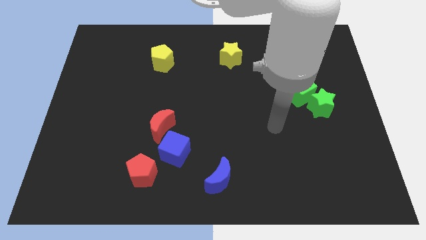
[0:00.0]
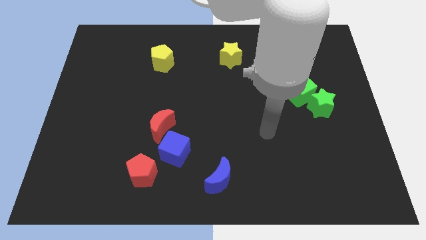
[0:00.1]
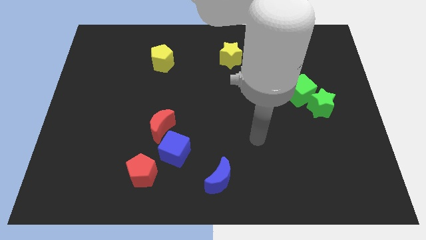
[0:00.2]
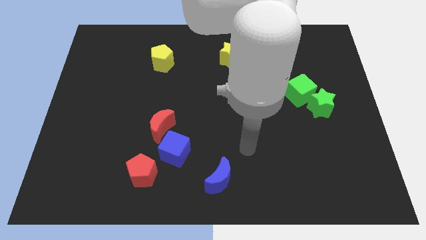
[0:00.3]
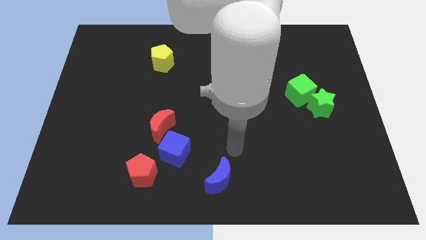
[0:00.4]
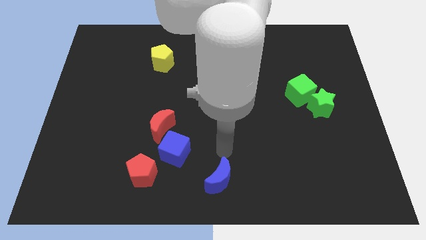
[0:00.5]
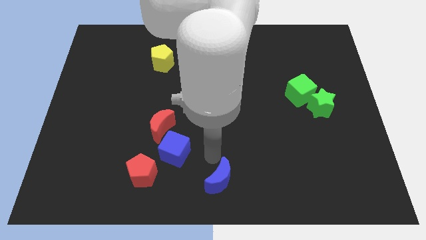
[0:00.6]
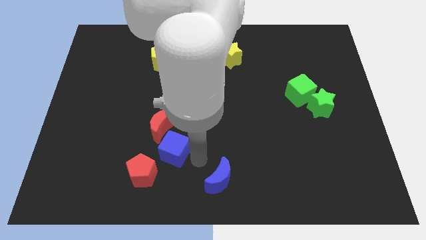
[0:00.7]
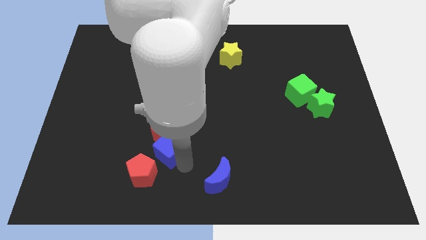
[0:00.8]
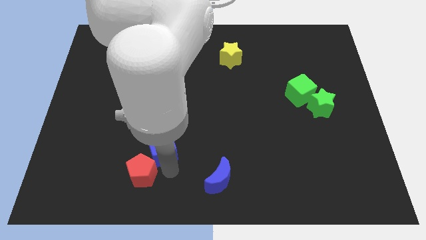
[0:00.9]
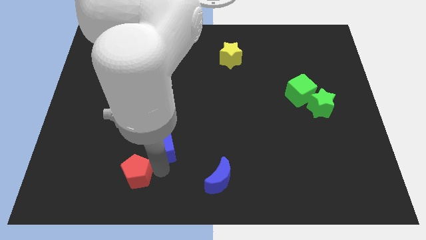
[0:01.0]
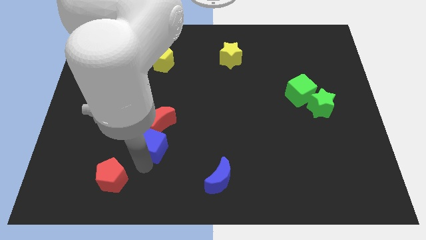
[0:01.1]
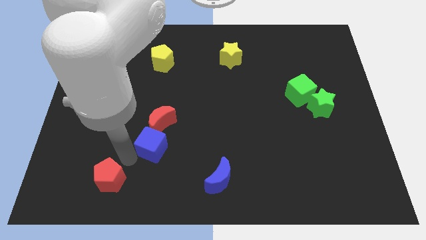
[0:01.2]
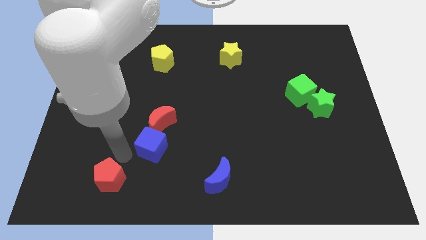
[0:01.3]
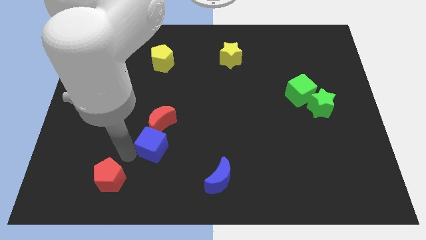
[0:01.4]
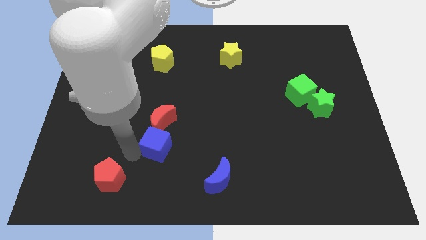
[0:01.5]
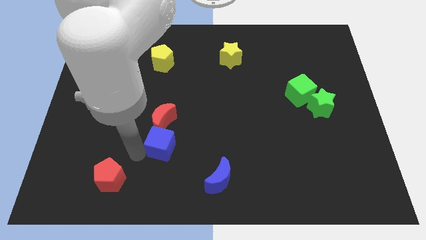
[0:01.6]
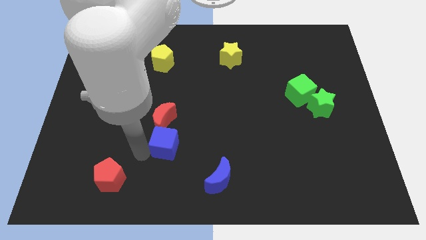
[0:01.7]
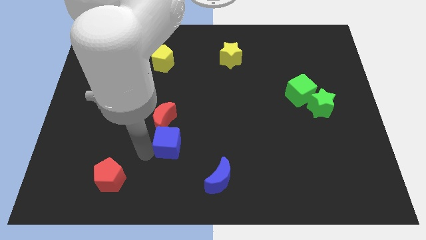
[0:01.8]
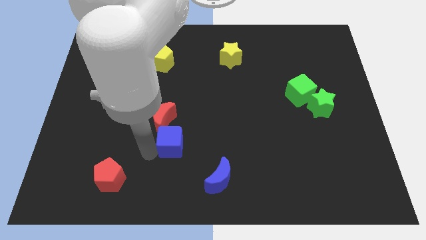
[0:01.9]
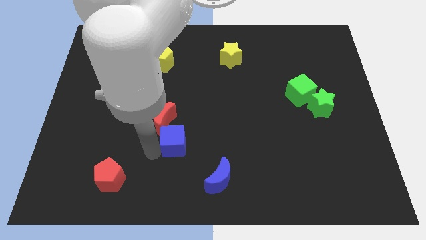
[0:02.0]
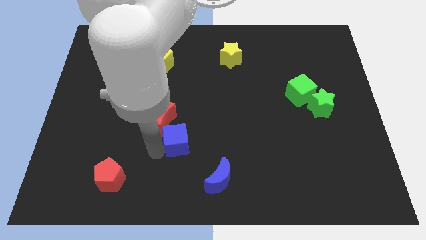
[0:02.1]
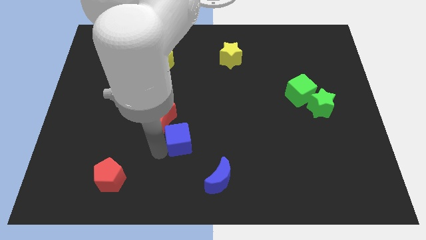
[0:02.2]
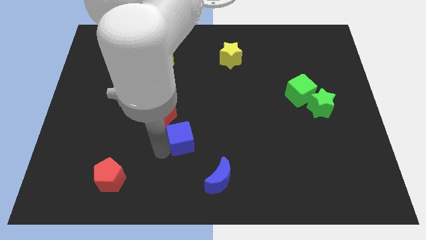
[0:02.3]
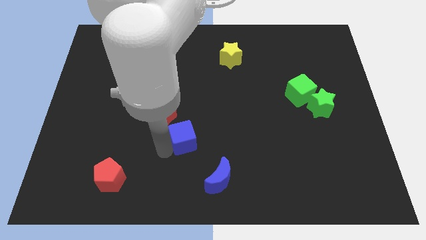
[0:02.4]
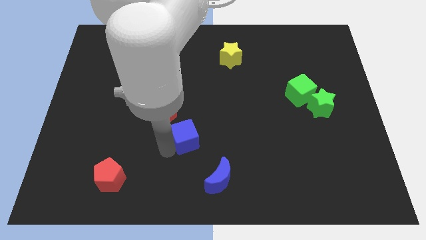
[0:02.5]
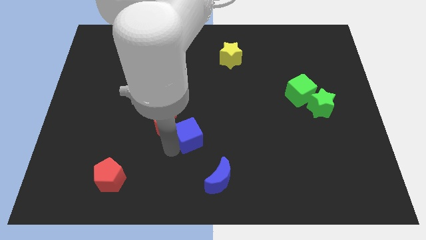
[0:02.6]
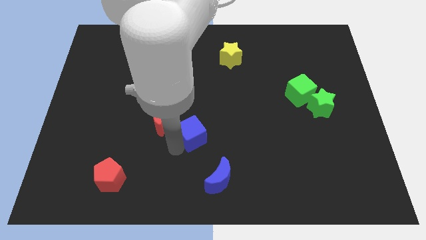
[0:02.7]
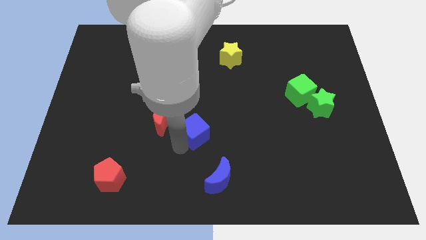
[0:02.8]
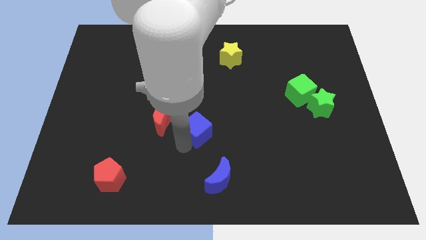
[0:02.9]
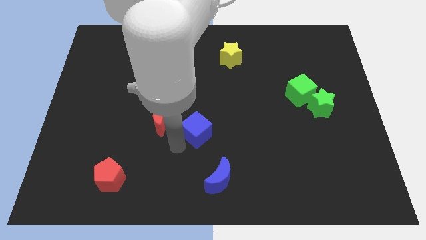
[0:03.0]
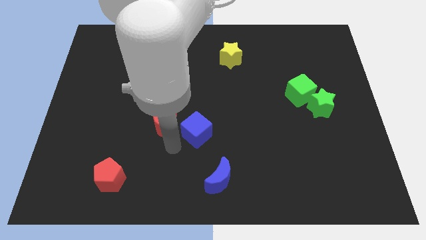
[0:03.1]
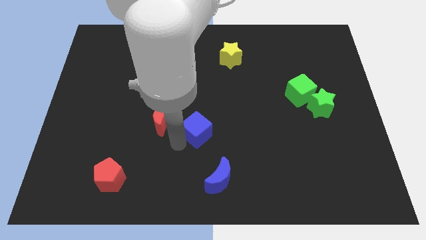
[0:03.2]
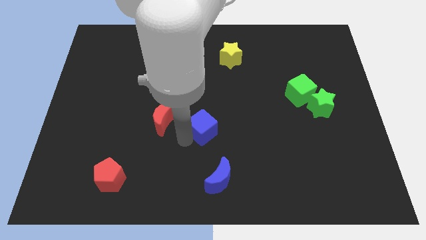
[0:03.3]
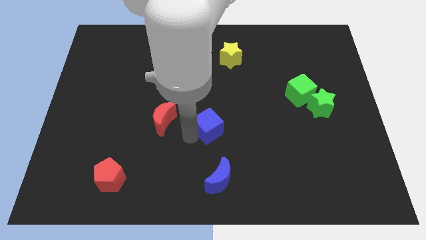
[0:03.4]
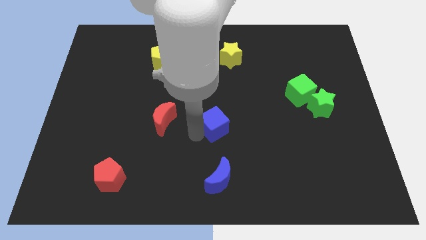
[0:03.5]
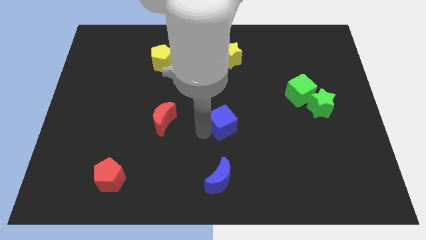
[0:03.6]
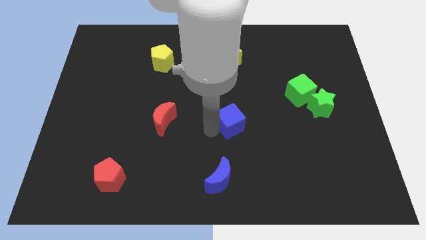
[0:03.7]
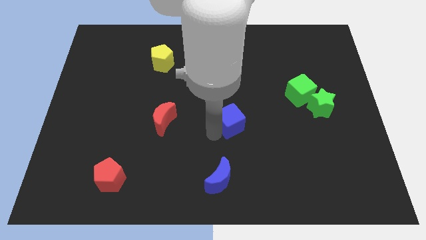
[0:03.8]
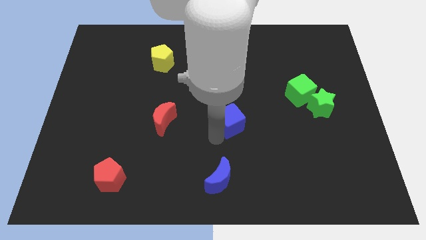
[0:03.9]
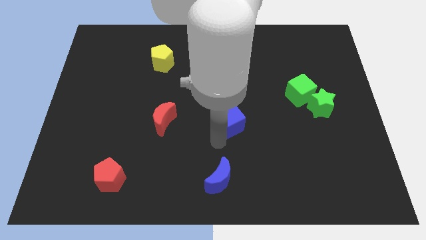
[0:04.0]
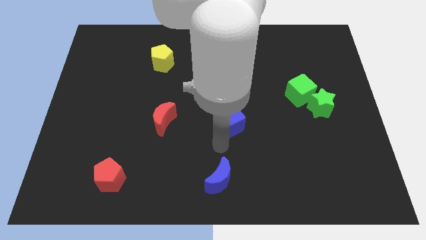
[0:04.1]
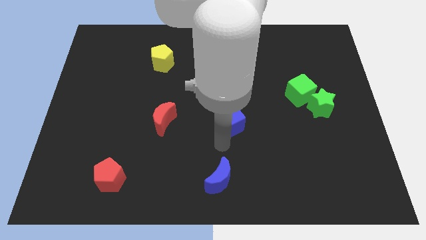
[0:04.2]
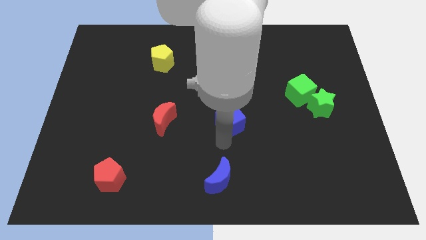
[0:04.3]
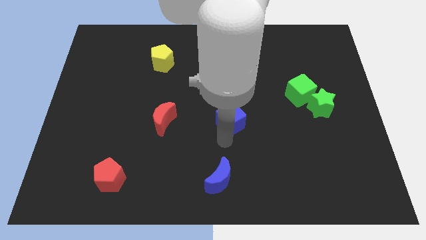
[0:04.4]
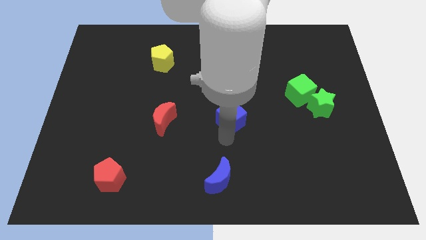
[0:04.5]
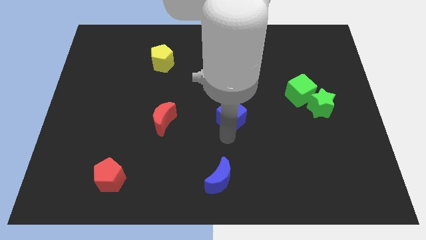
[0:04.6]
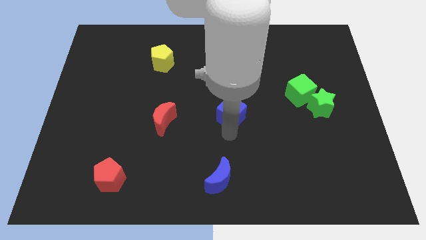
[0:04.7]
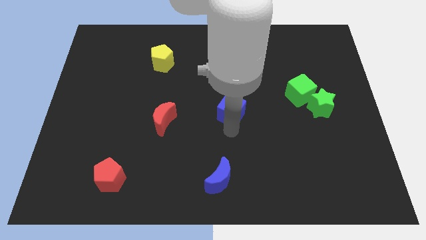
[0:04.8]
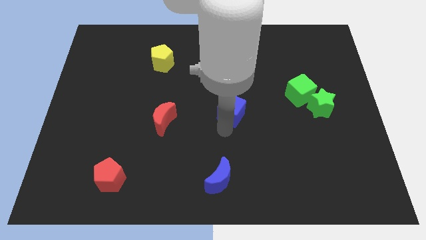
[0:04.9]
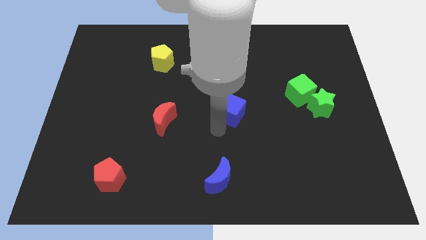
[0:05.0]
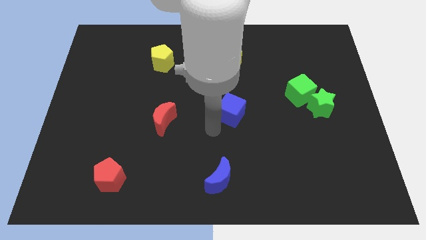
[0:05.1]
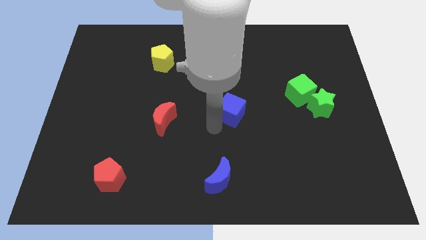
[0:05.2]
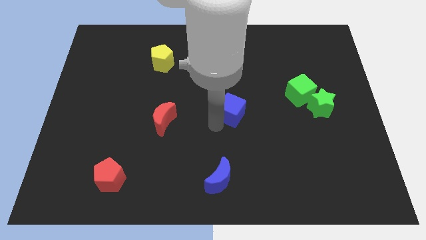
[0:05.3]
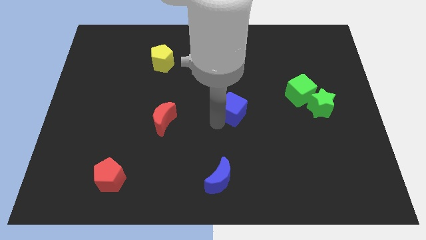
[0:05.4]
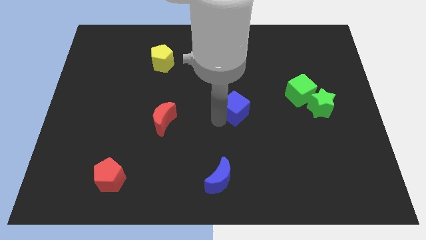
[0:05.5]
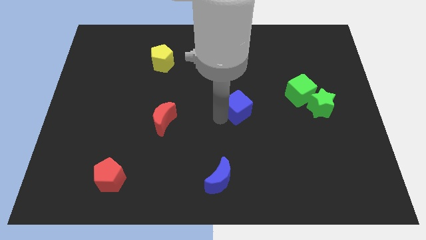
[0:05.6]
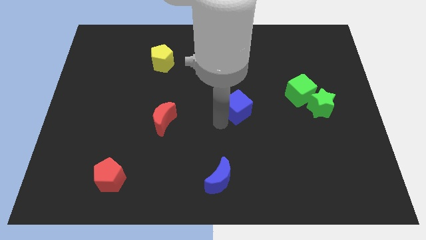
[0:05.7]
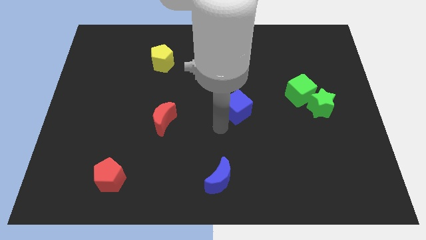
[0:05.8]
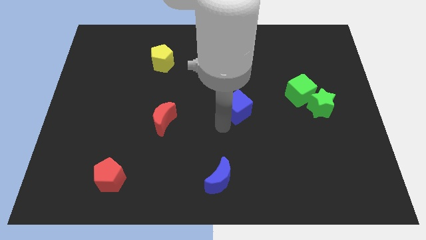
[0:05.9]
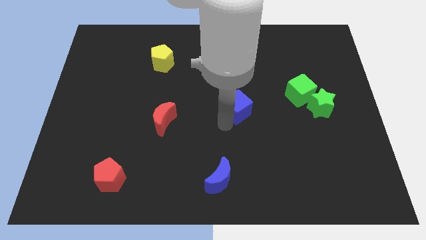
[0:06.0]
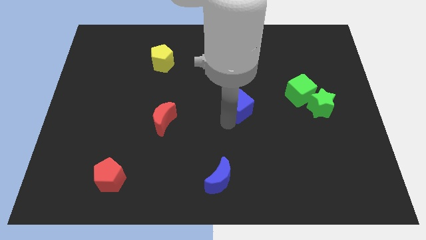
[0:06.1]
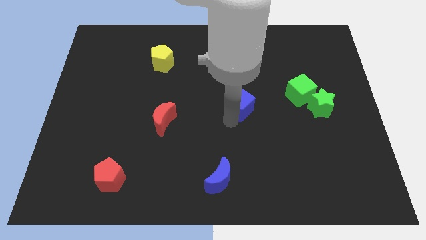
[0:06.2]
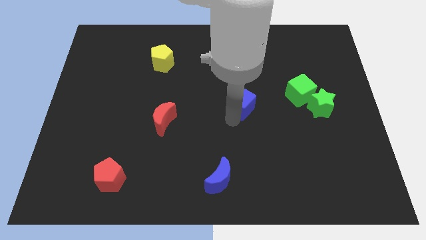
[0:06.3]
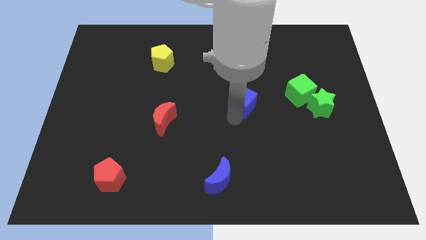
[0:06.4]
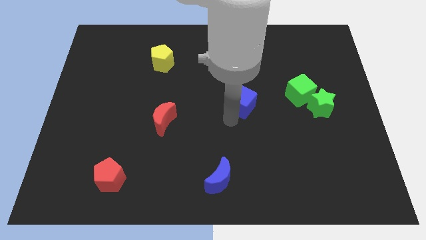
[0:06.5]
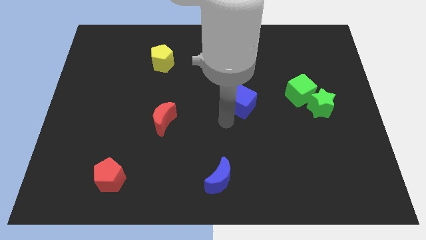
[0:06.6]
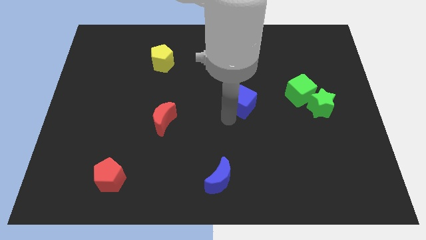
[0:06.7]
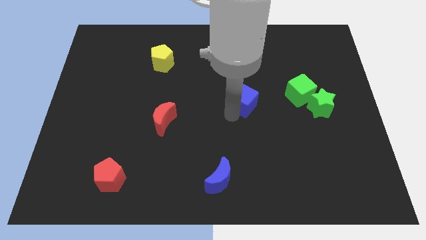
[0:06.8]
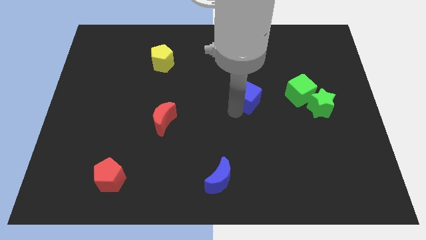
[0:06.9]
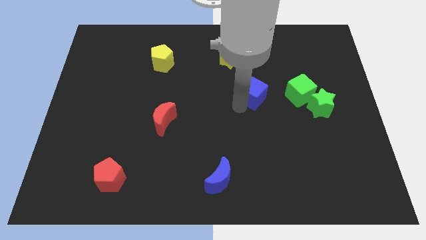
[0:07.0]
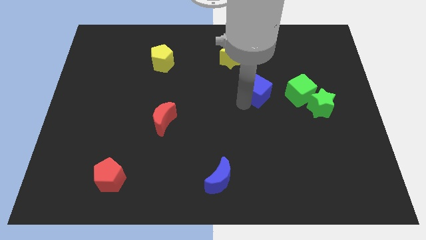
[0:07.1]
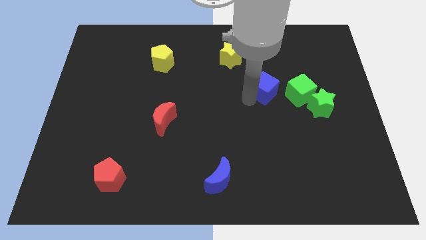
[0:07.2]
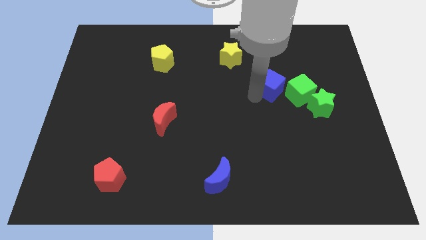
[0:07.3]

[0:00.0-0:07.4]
put the blue cube to the top left side of the green cube
